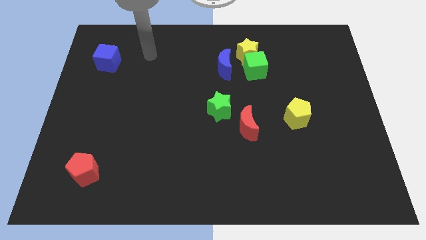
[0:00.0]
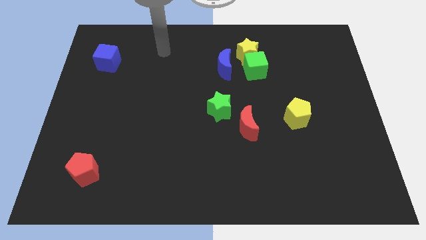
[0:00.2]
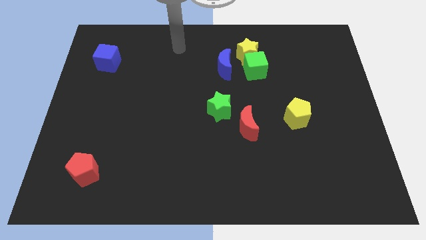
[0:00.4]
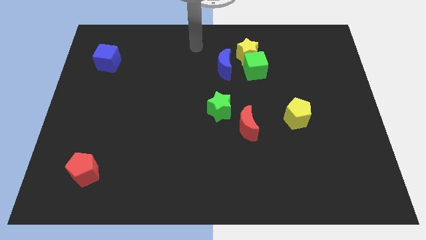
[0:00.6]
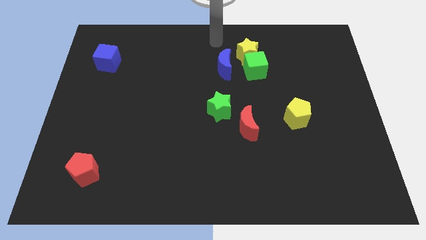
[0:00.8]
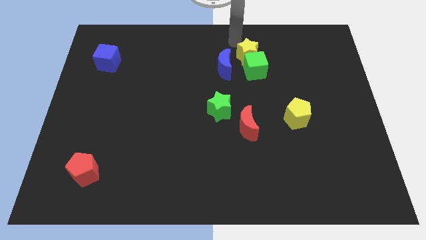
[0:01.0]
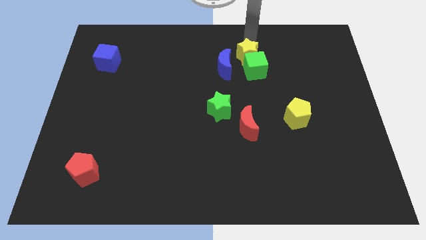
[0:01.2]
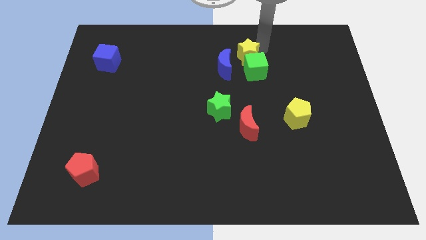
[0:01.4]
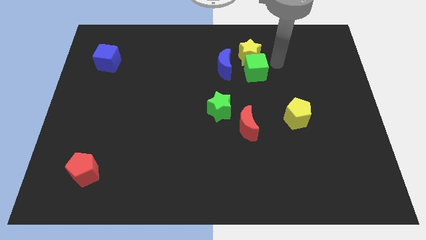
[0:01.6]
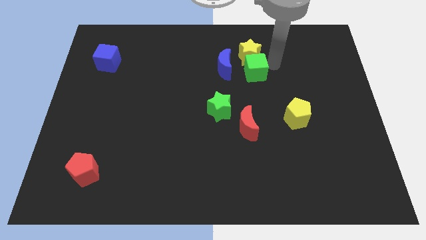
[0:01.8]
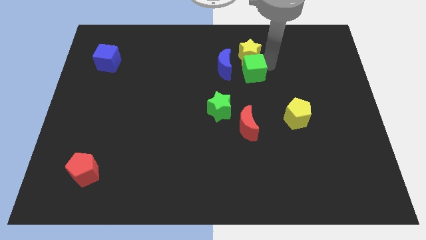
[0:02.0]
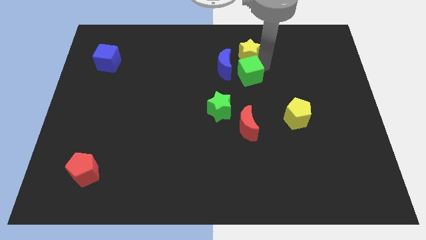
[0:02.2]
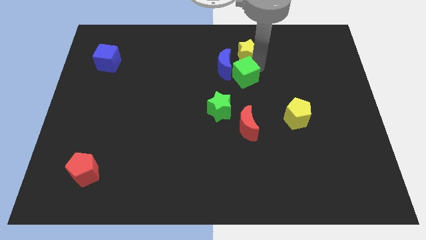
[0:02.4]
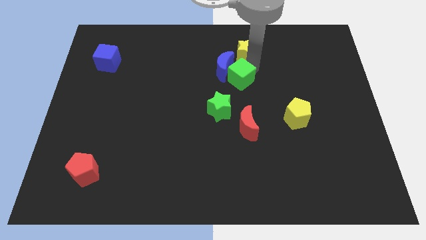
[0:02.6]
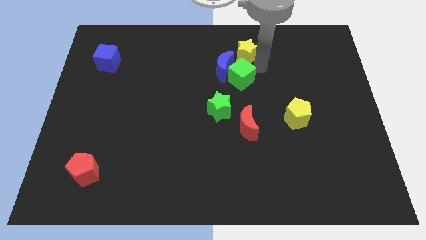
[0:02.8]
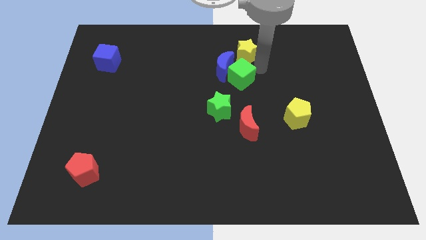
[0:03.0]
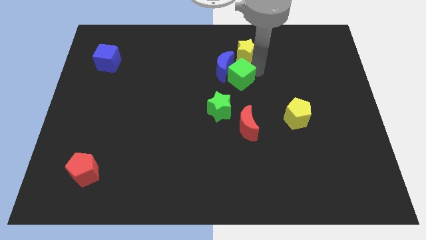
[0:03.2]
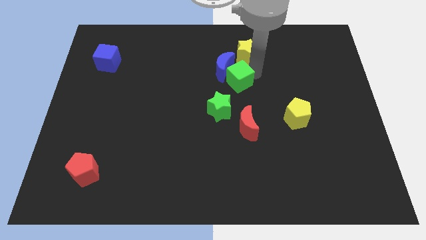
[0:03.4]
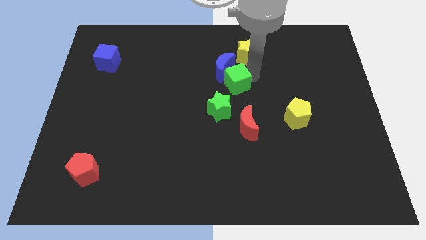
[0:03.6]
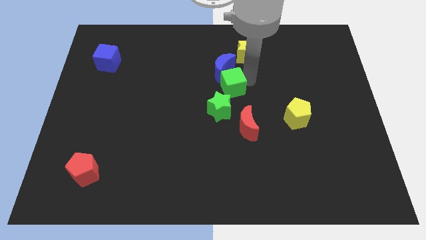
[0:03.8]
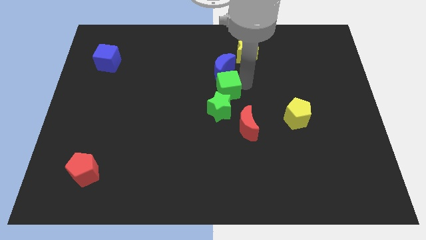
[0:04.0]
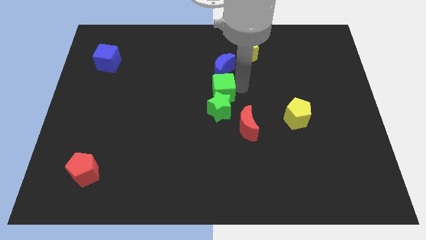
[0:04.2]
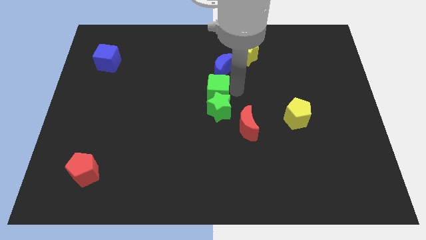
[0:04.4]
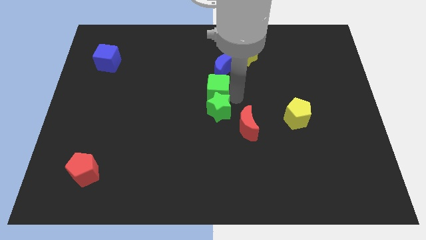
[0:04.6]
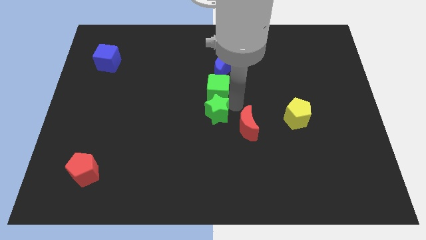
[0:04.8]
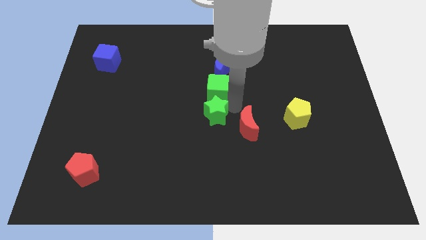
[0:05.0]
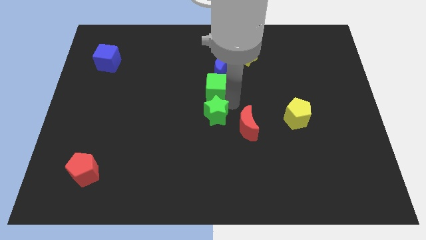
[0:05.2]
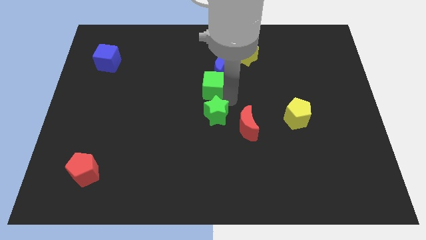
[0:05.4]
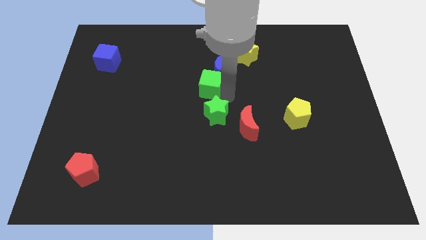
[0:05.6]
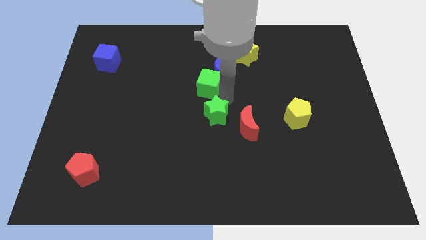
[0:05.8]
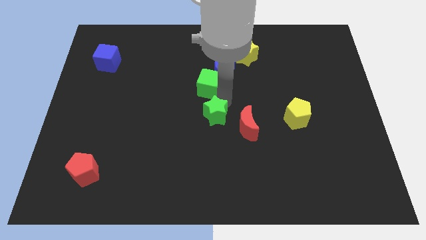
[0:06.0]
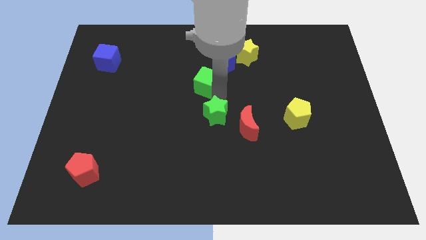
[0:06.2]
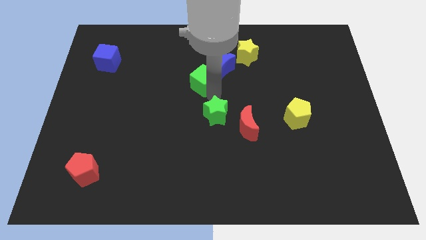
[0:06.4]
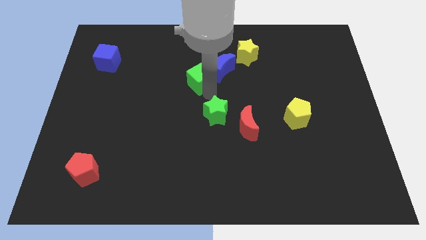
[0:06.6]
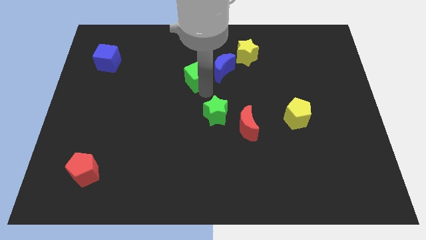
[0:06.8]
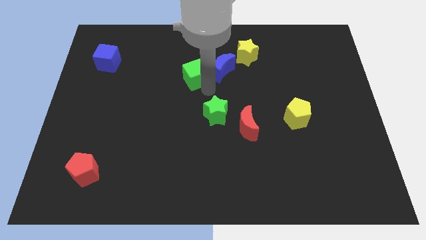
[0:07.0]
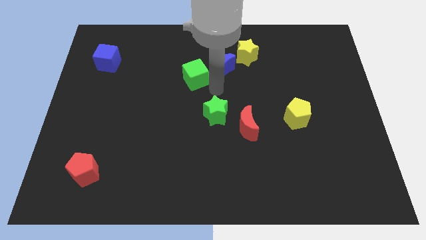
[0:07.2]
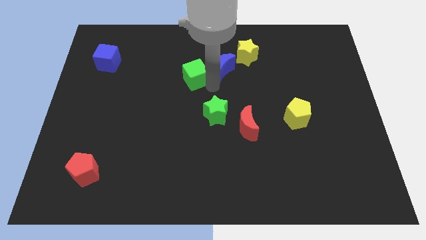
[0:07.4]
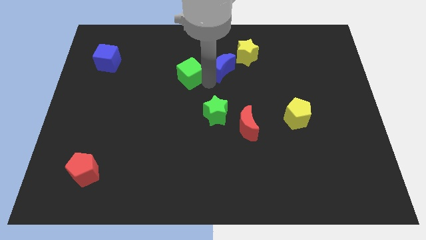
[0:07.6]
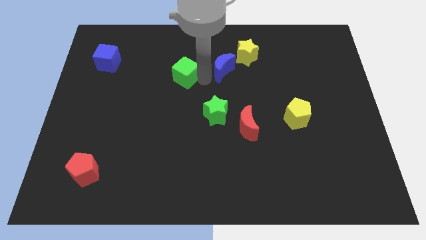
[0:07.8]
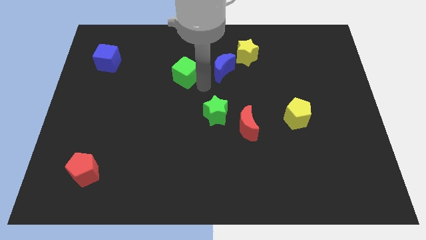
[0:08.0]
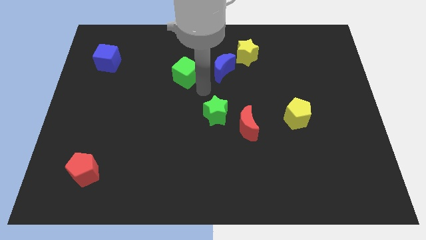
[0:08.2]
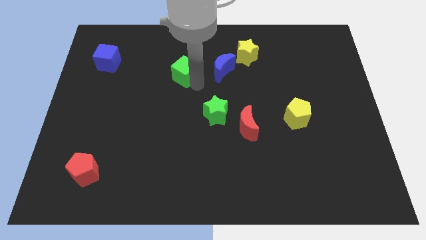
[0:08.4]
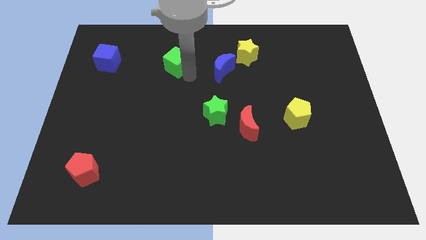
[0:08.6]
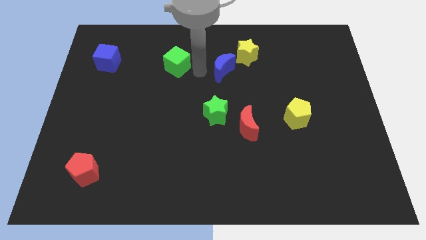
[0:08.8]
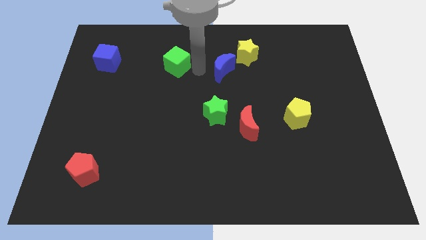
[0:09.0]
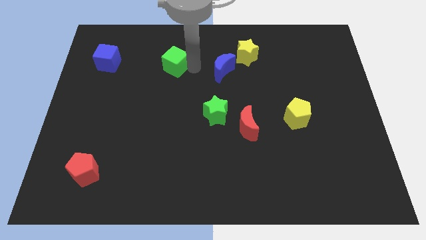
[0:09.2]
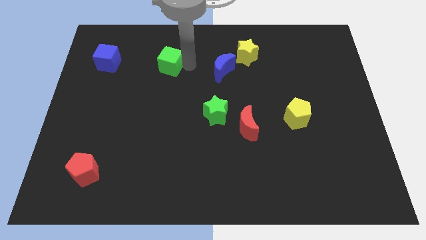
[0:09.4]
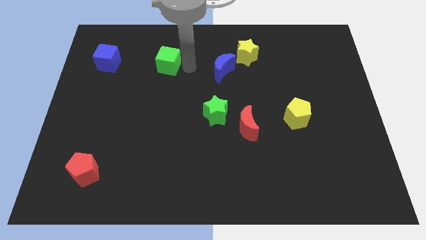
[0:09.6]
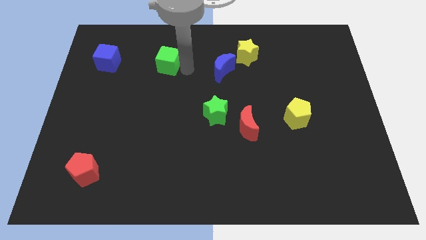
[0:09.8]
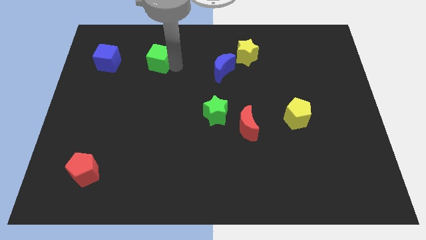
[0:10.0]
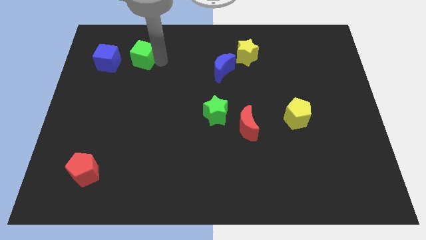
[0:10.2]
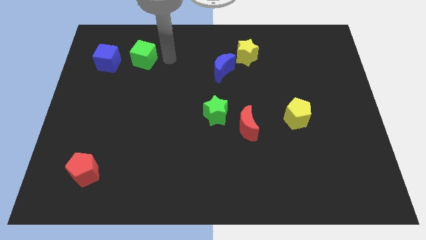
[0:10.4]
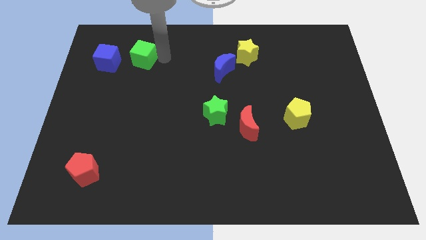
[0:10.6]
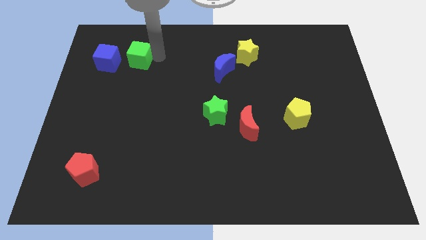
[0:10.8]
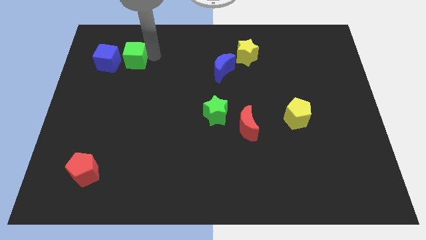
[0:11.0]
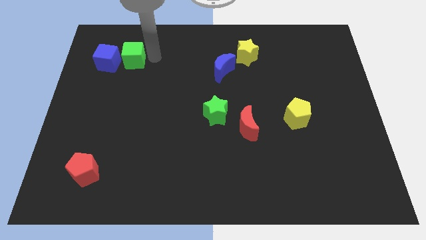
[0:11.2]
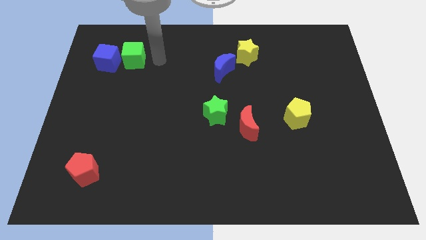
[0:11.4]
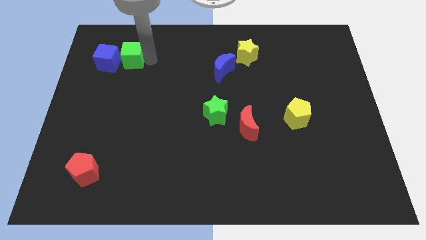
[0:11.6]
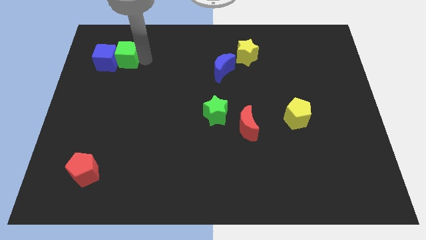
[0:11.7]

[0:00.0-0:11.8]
slide the green cube to the blue cube

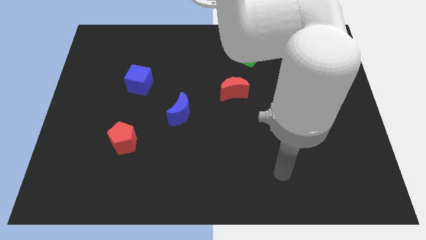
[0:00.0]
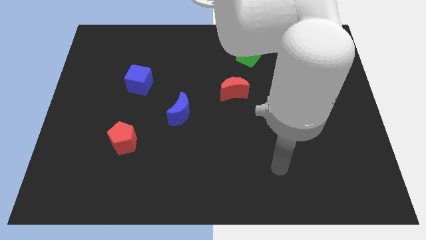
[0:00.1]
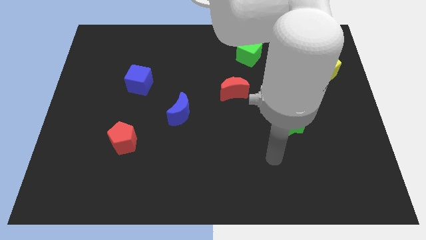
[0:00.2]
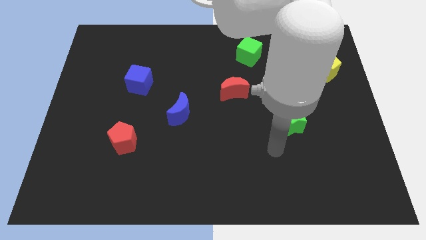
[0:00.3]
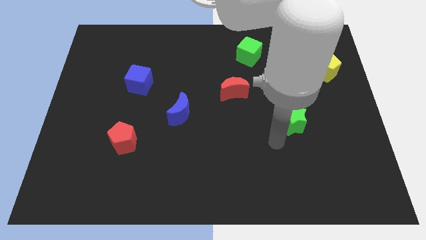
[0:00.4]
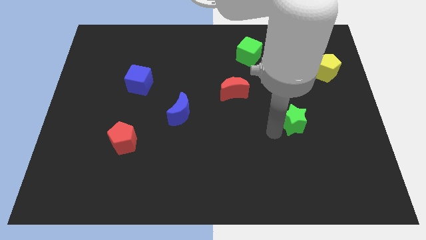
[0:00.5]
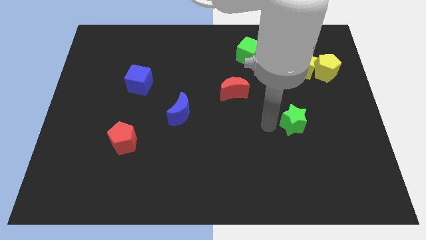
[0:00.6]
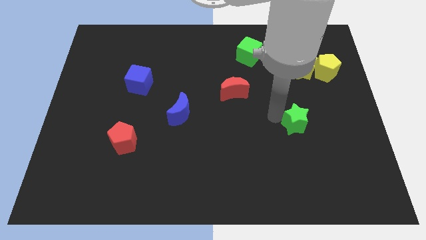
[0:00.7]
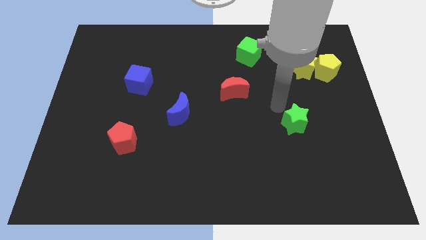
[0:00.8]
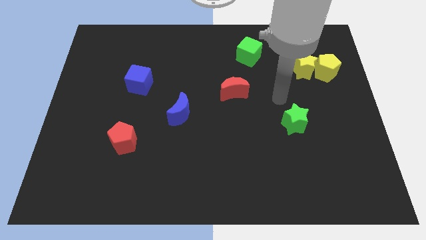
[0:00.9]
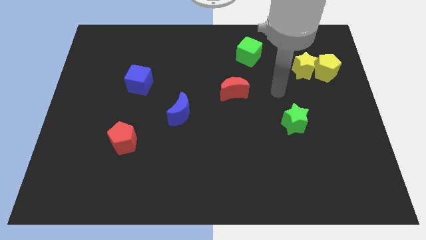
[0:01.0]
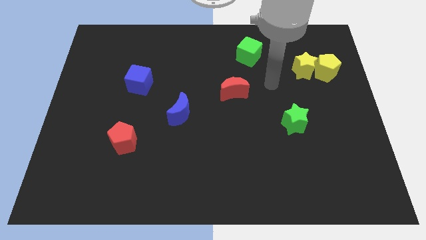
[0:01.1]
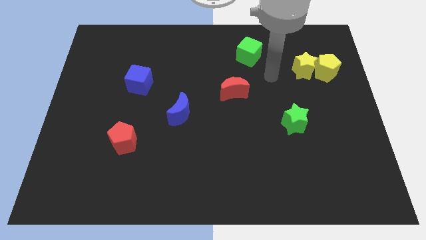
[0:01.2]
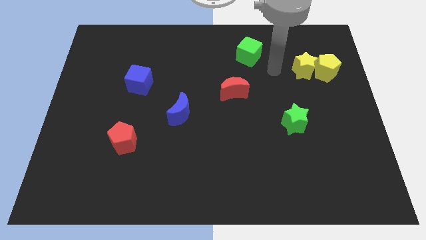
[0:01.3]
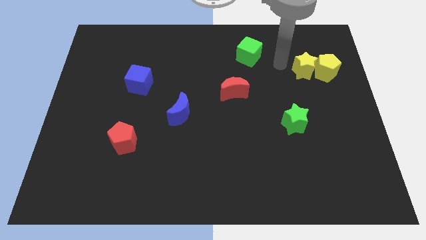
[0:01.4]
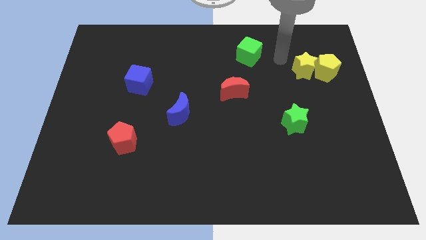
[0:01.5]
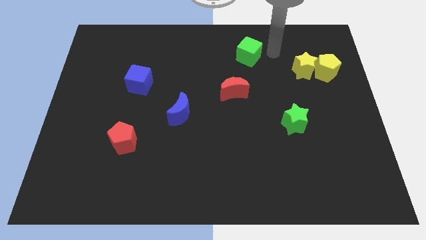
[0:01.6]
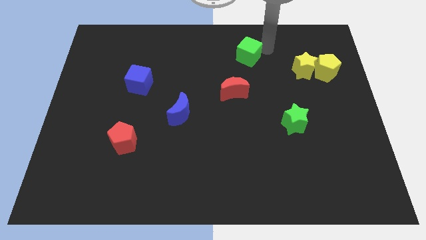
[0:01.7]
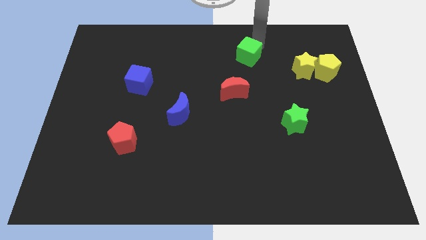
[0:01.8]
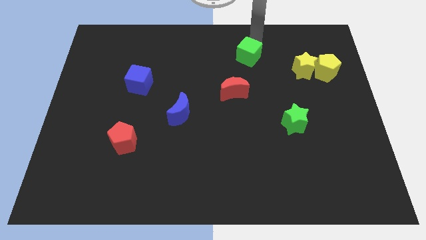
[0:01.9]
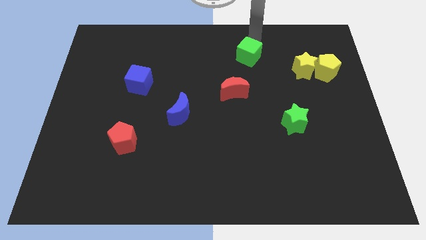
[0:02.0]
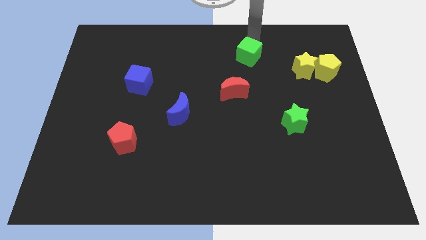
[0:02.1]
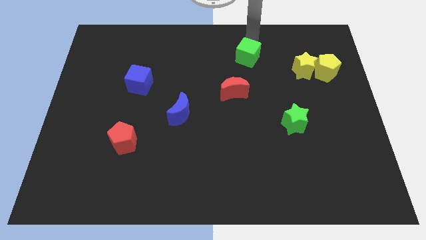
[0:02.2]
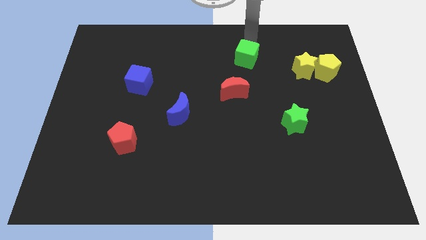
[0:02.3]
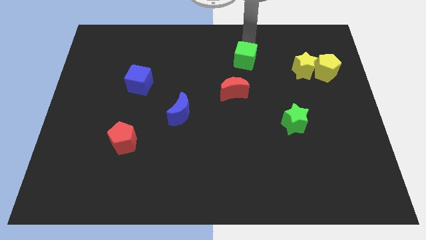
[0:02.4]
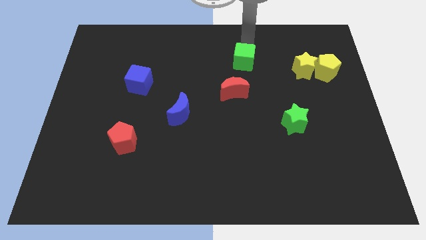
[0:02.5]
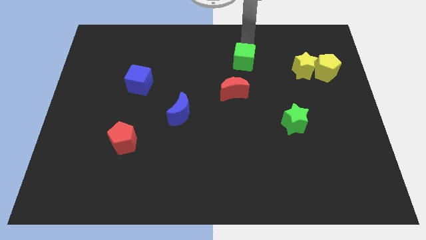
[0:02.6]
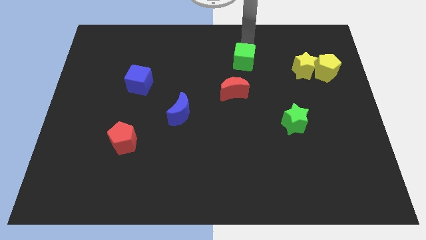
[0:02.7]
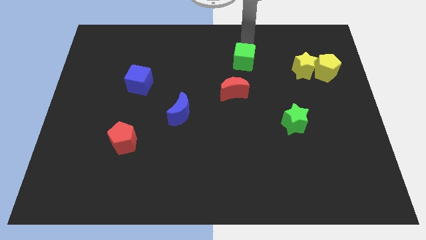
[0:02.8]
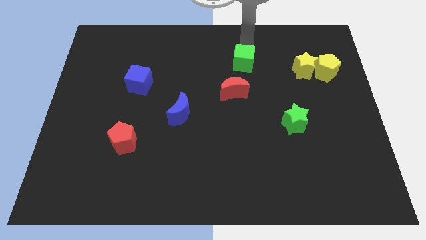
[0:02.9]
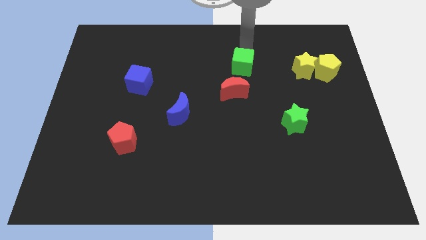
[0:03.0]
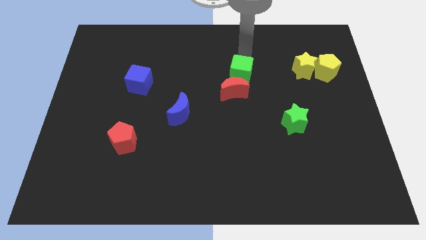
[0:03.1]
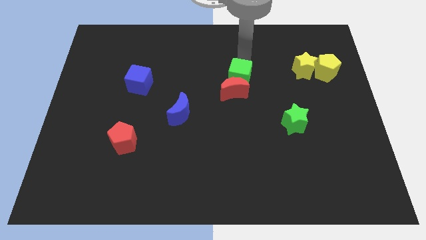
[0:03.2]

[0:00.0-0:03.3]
push the green cube towards the red moon
